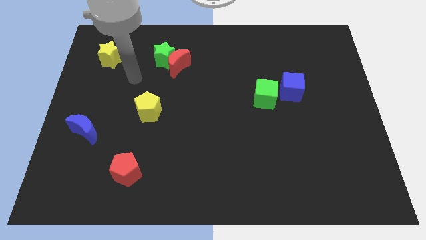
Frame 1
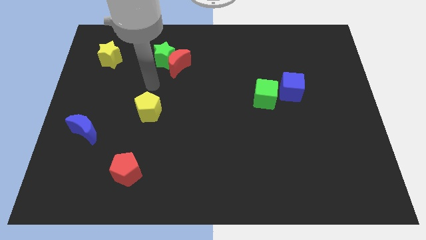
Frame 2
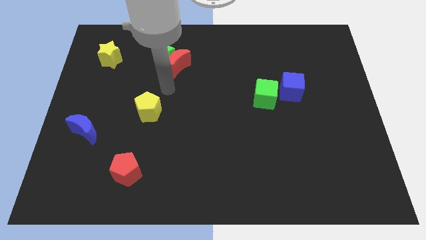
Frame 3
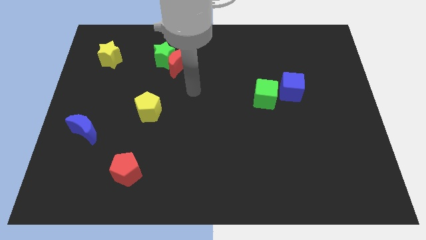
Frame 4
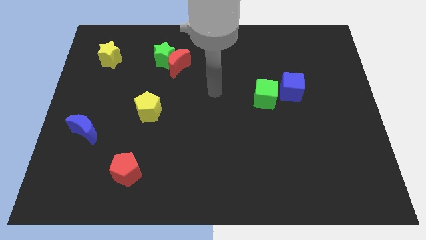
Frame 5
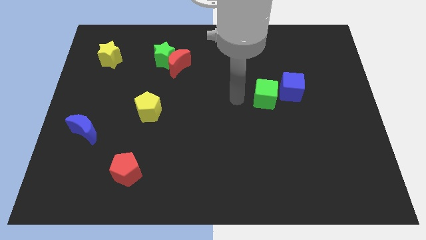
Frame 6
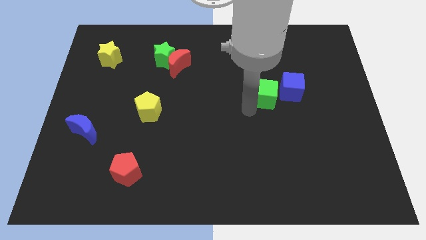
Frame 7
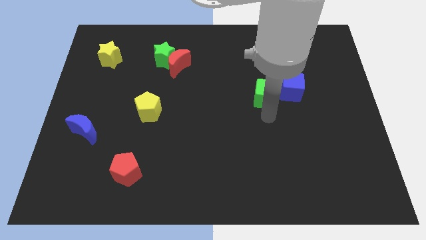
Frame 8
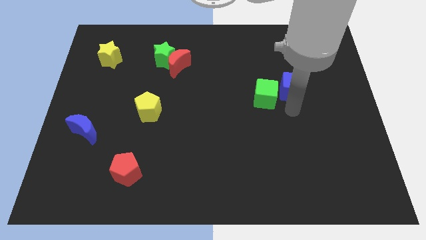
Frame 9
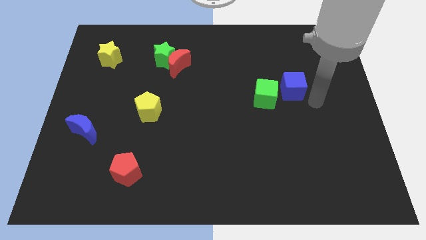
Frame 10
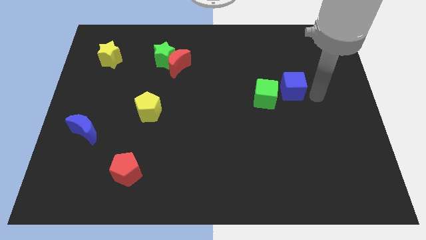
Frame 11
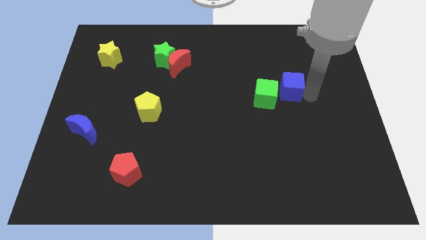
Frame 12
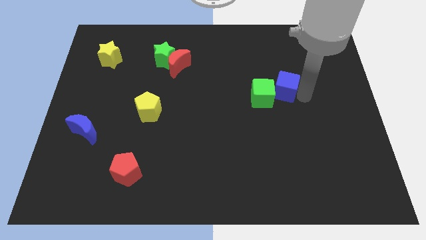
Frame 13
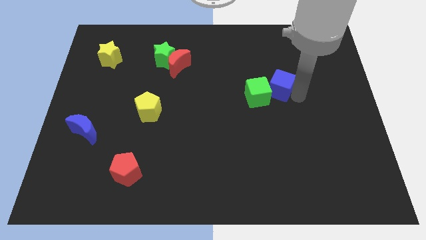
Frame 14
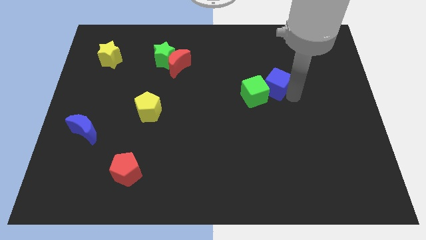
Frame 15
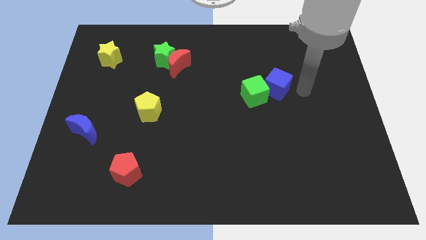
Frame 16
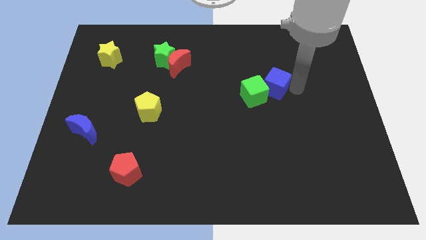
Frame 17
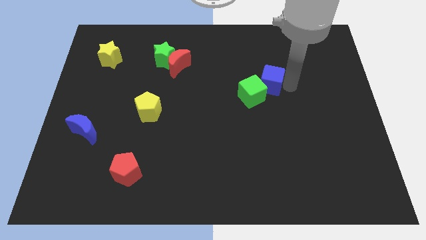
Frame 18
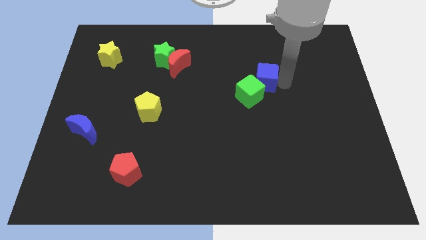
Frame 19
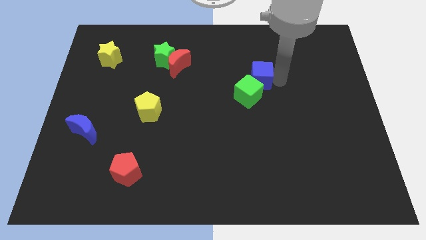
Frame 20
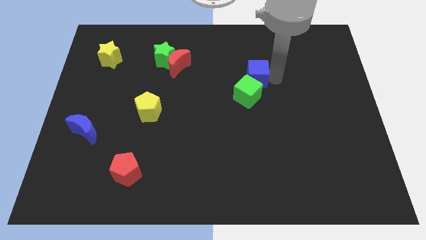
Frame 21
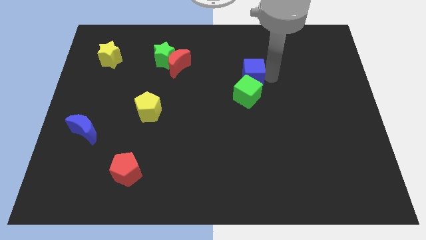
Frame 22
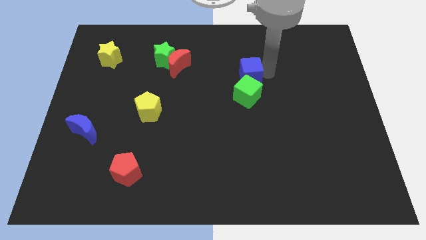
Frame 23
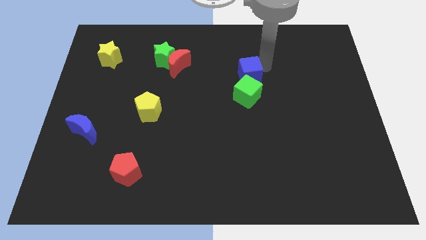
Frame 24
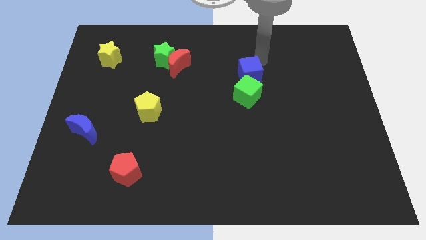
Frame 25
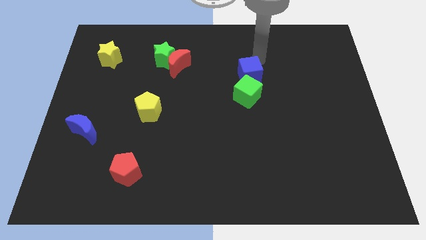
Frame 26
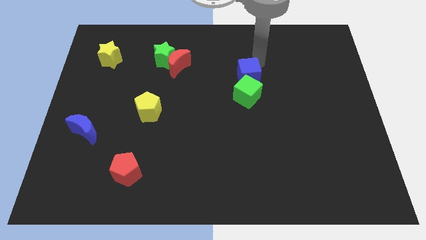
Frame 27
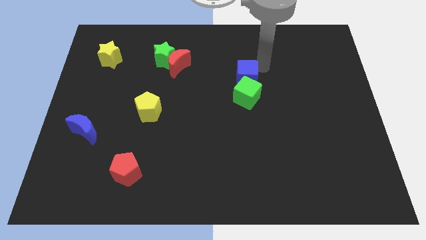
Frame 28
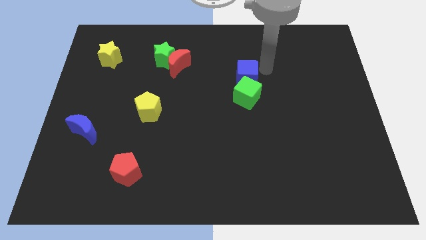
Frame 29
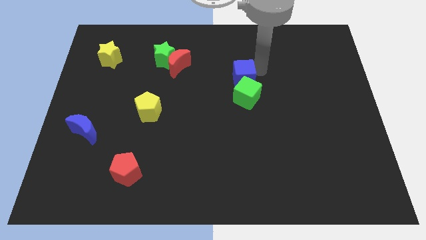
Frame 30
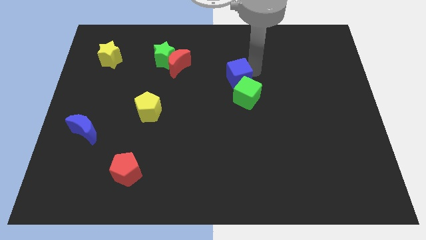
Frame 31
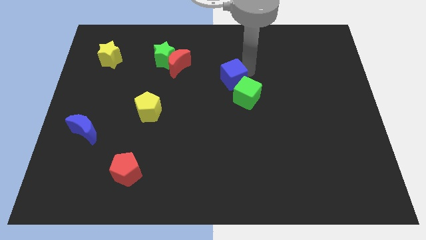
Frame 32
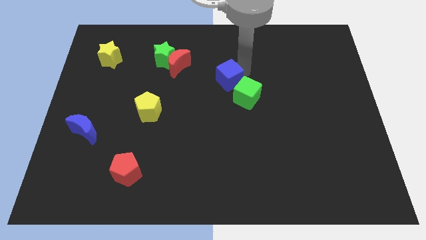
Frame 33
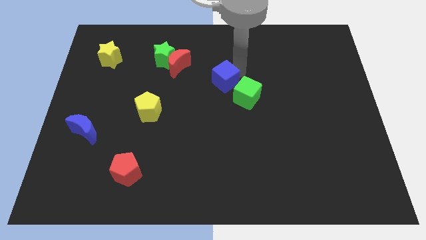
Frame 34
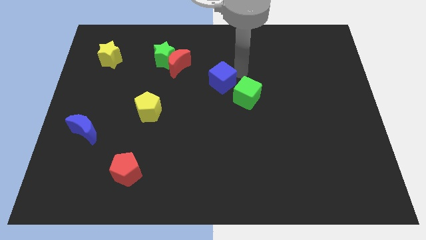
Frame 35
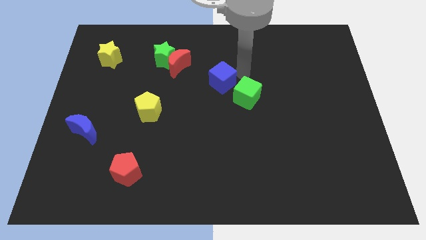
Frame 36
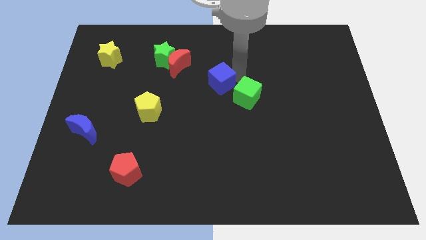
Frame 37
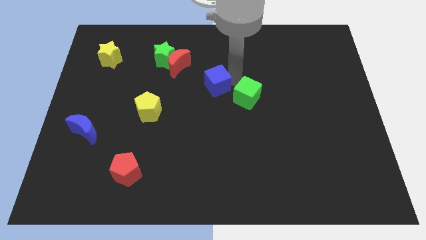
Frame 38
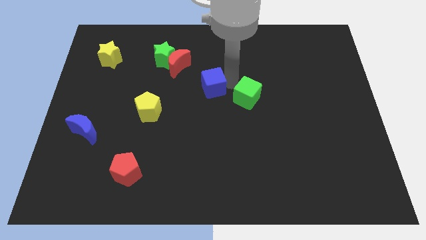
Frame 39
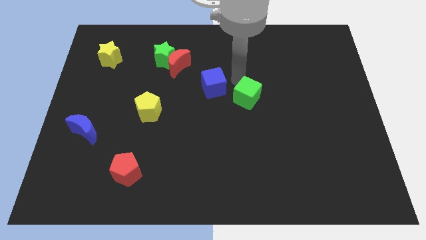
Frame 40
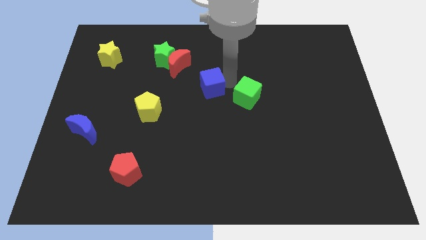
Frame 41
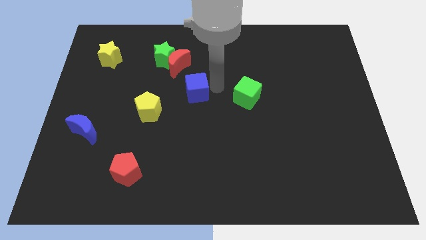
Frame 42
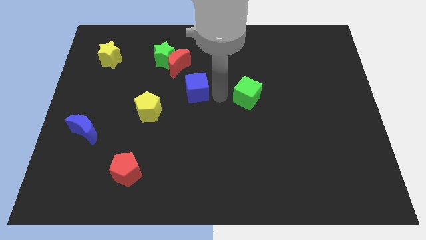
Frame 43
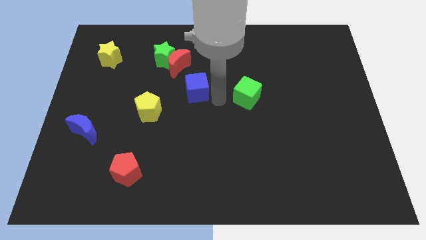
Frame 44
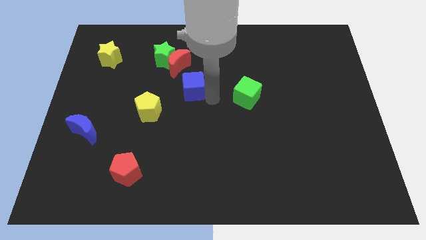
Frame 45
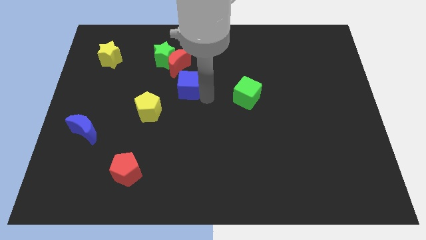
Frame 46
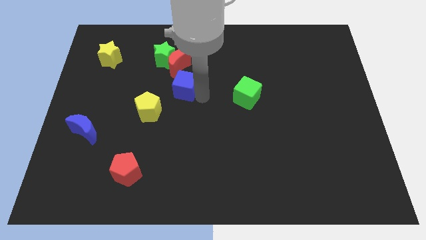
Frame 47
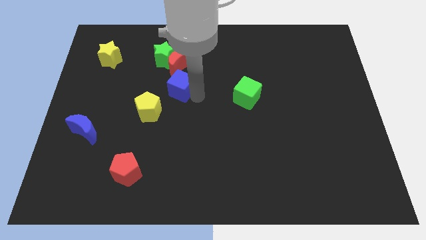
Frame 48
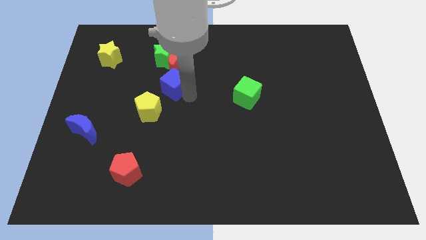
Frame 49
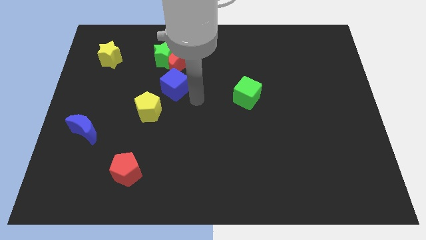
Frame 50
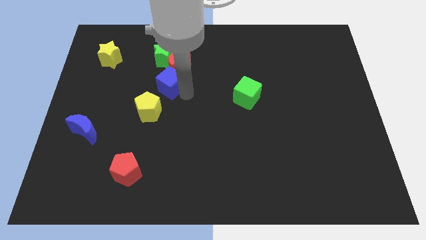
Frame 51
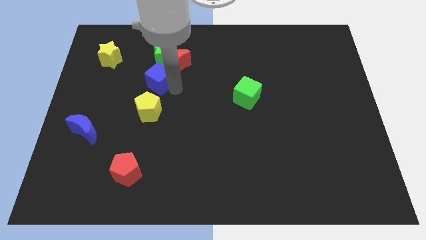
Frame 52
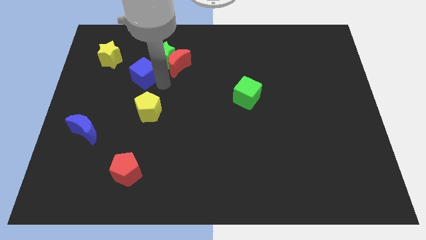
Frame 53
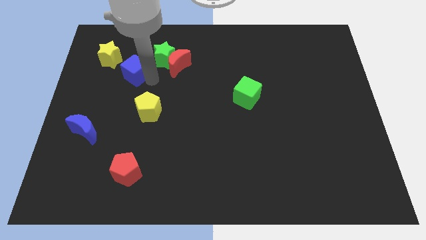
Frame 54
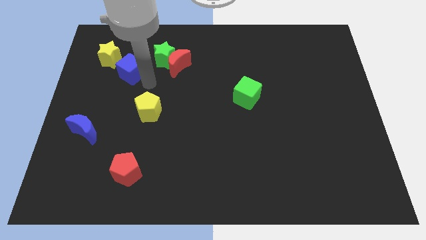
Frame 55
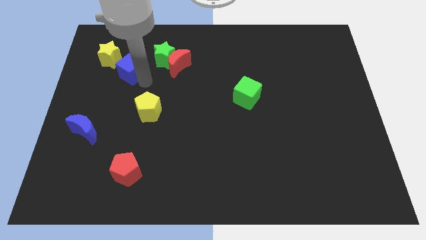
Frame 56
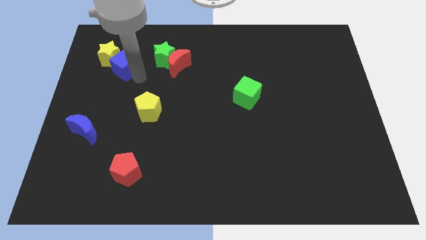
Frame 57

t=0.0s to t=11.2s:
push the blue cube next to the yellow star
